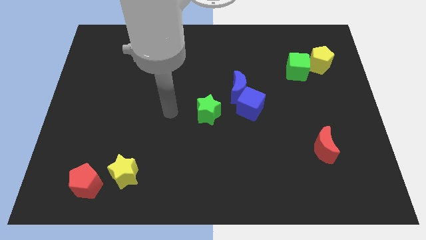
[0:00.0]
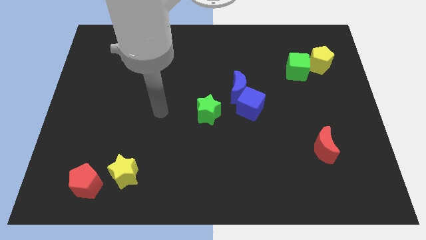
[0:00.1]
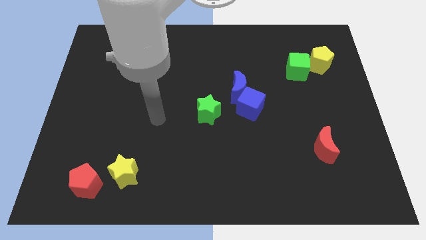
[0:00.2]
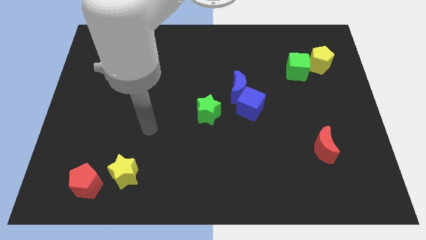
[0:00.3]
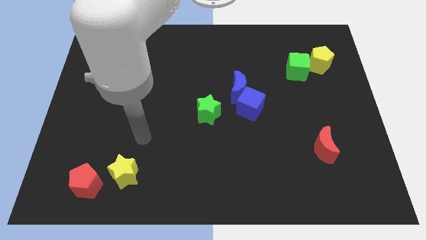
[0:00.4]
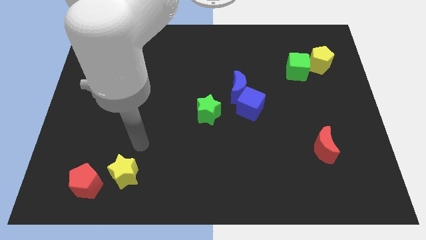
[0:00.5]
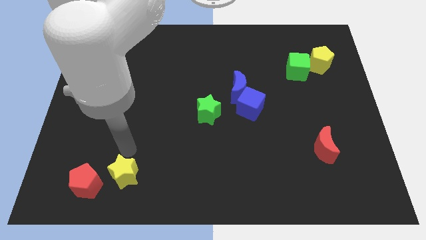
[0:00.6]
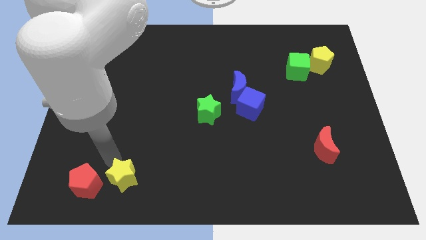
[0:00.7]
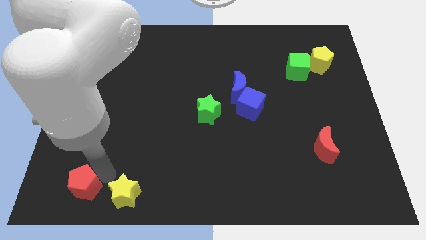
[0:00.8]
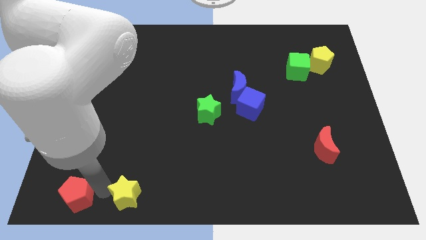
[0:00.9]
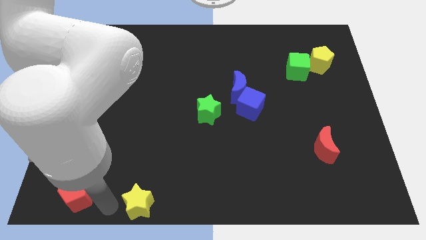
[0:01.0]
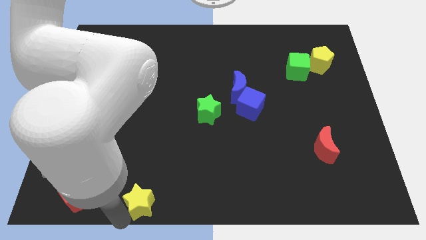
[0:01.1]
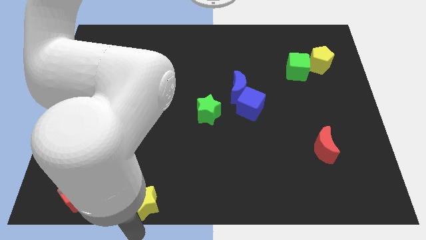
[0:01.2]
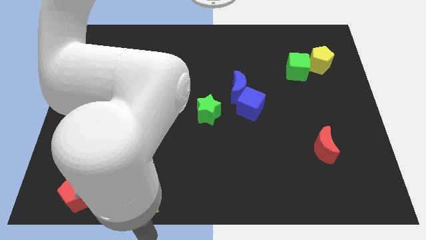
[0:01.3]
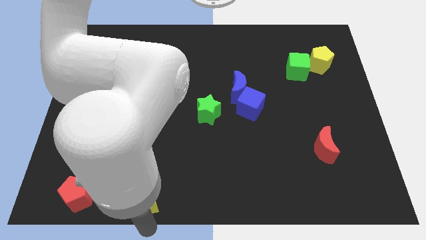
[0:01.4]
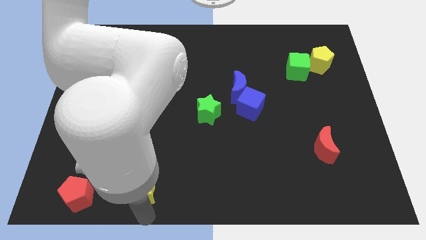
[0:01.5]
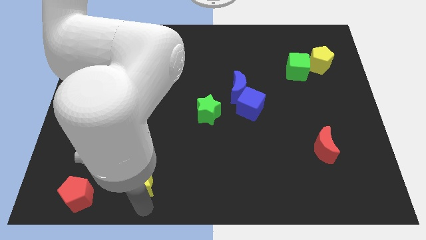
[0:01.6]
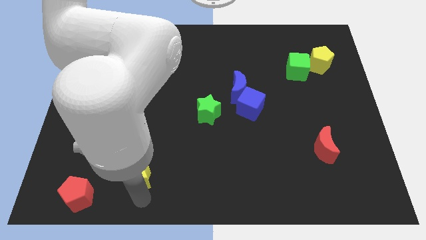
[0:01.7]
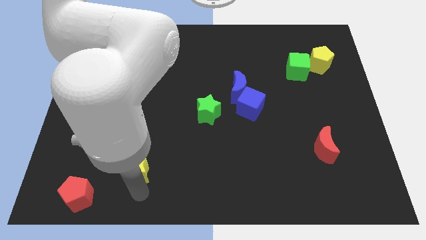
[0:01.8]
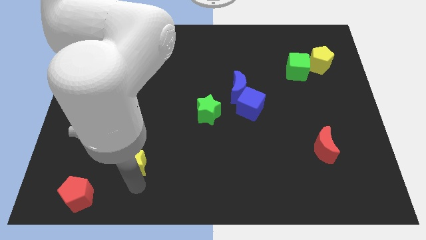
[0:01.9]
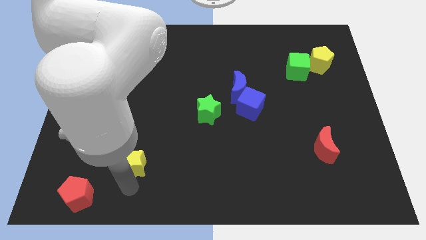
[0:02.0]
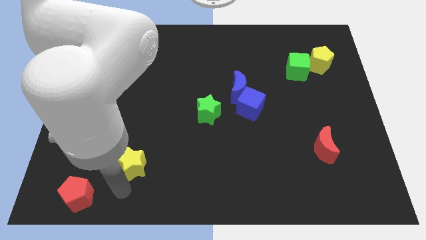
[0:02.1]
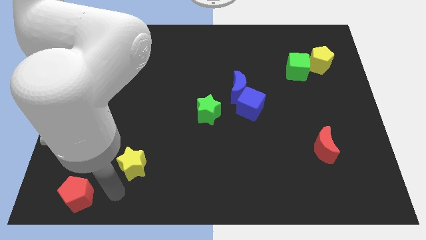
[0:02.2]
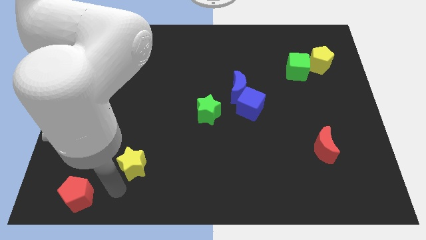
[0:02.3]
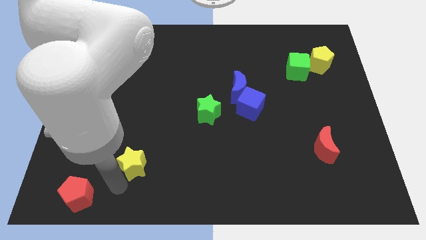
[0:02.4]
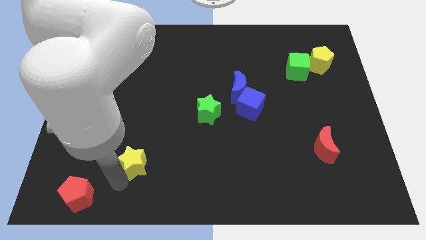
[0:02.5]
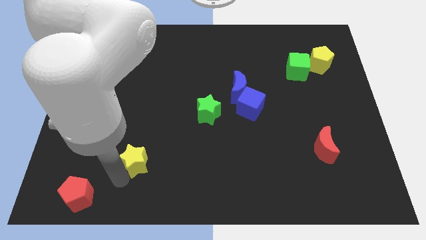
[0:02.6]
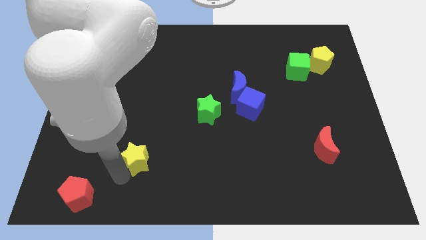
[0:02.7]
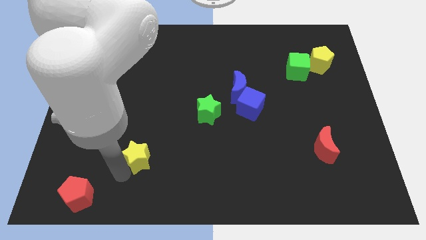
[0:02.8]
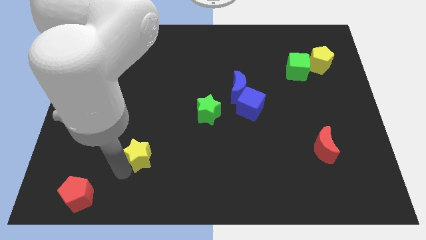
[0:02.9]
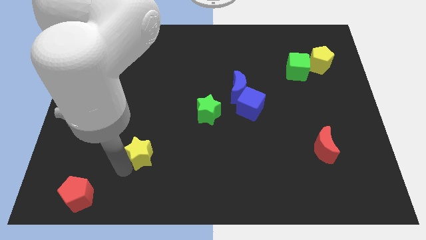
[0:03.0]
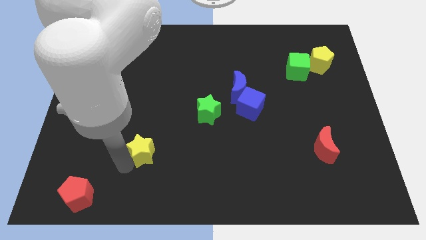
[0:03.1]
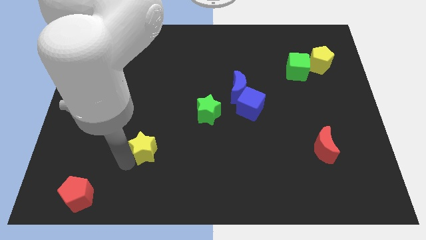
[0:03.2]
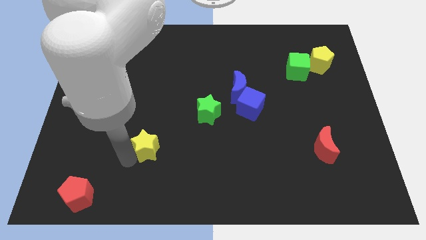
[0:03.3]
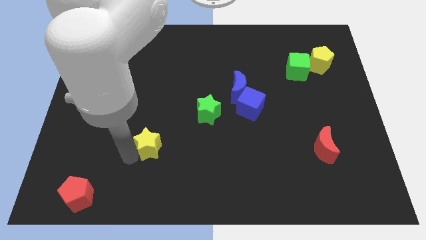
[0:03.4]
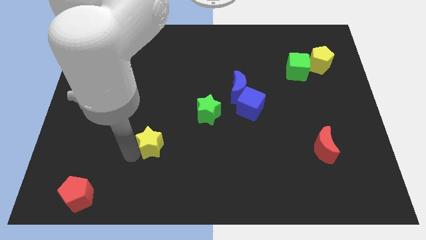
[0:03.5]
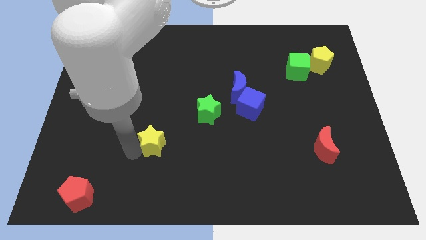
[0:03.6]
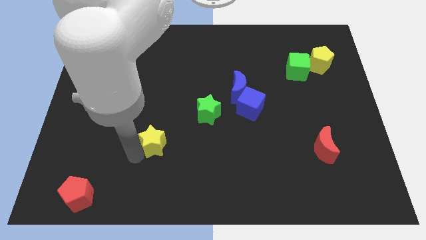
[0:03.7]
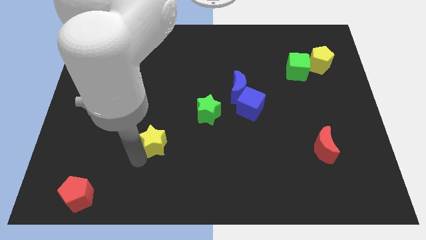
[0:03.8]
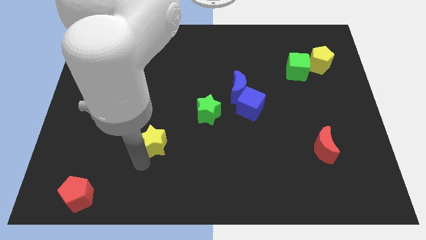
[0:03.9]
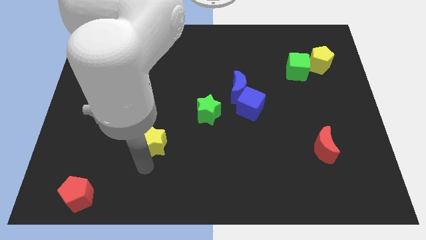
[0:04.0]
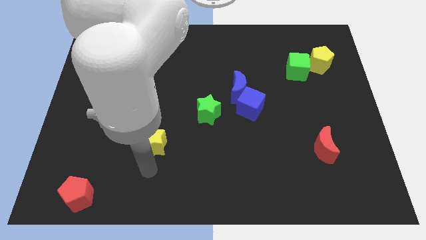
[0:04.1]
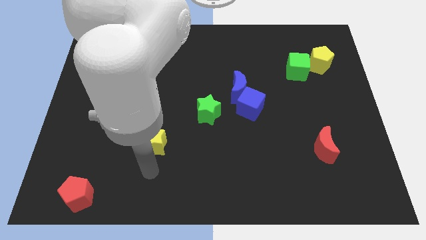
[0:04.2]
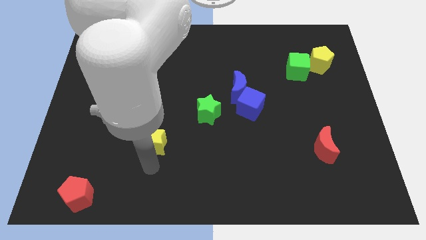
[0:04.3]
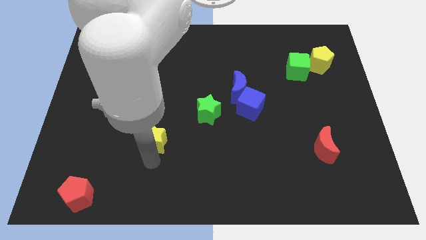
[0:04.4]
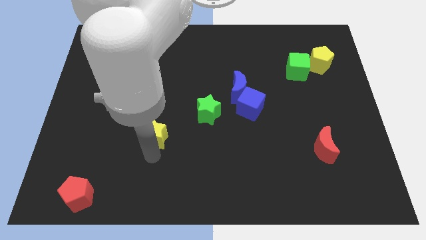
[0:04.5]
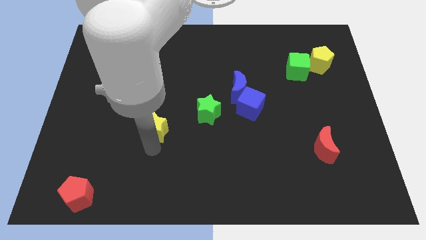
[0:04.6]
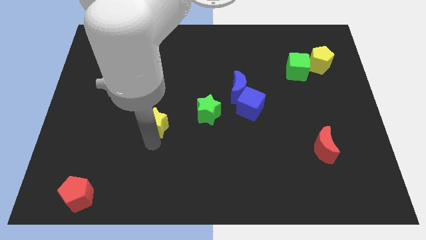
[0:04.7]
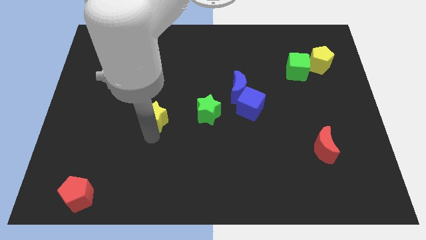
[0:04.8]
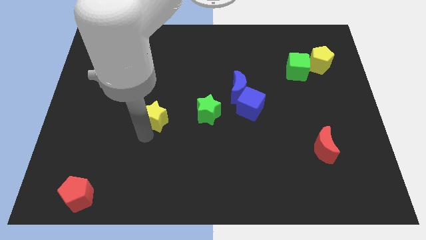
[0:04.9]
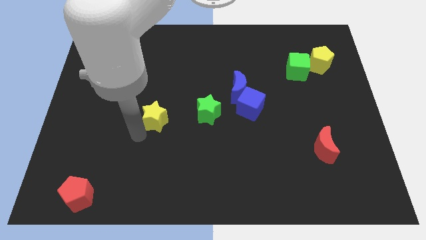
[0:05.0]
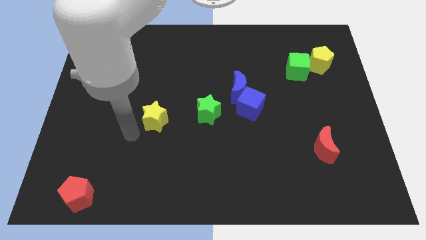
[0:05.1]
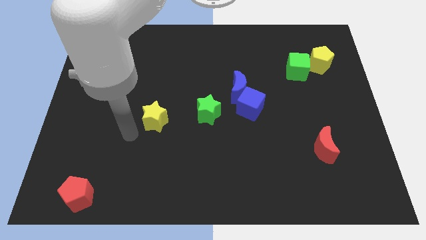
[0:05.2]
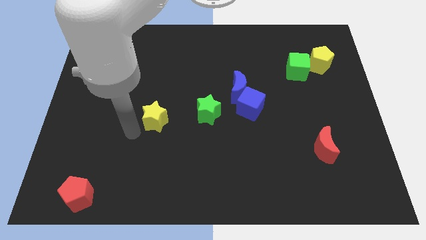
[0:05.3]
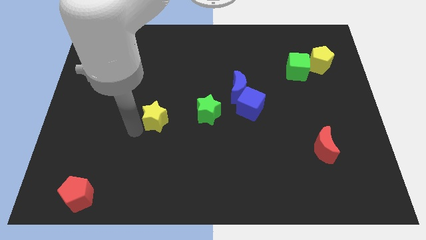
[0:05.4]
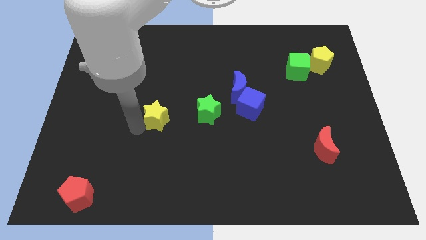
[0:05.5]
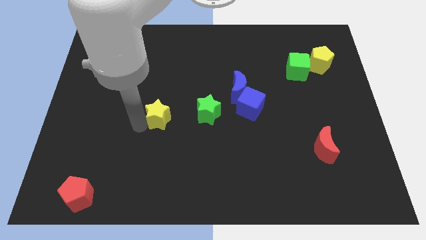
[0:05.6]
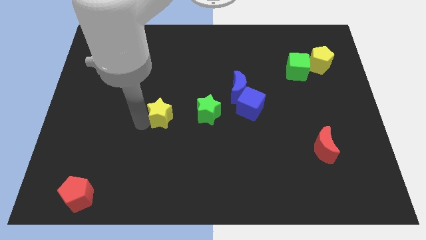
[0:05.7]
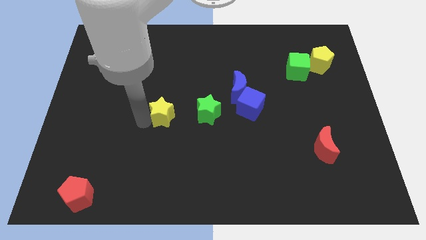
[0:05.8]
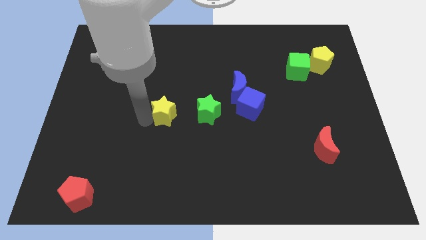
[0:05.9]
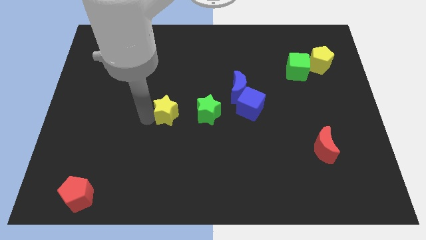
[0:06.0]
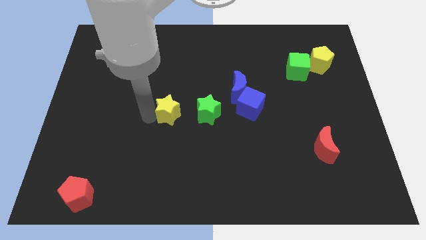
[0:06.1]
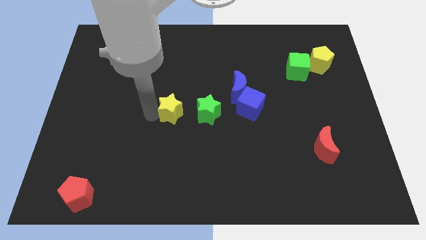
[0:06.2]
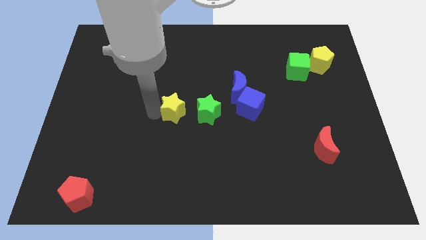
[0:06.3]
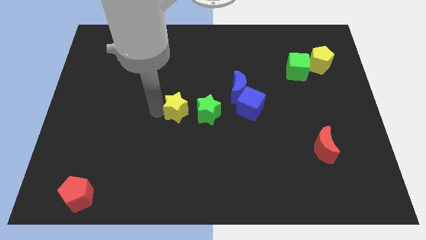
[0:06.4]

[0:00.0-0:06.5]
put the yellow star to the top left of the green star
